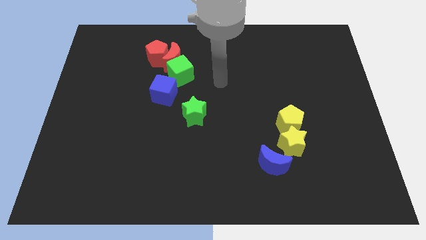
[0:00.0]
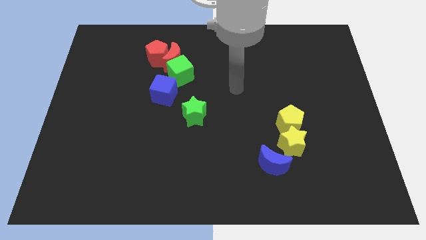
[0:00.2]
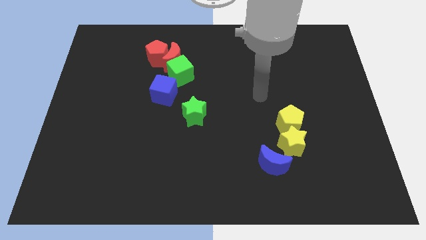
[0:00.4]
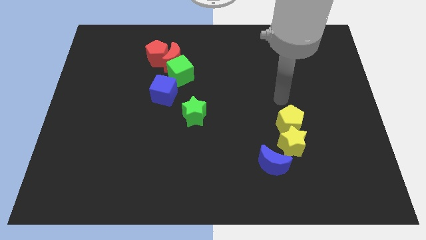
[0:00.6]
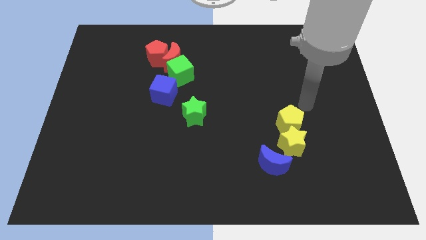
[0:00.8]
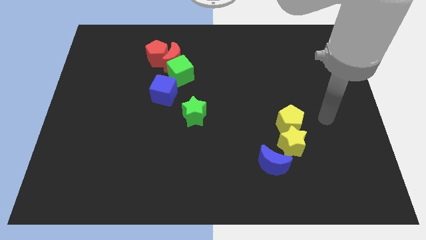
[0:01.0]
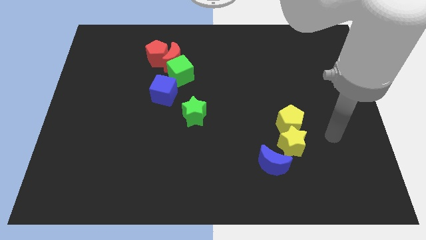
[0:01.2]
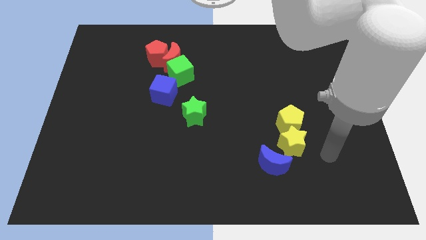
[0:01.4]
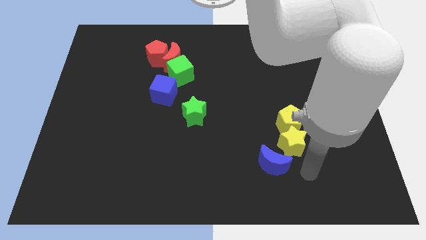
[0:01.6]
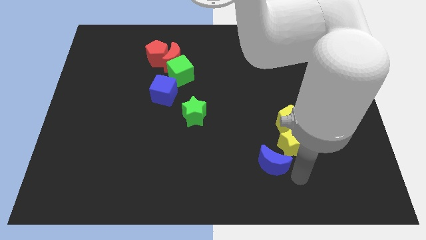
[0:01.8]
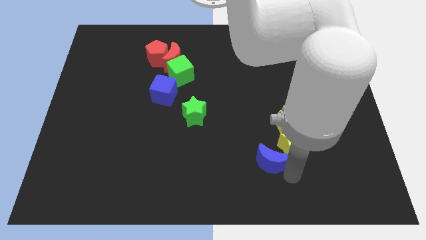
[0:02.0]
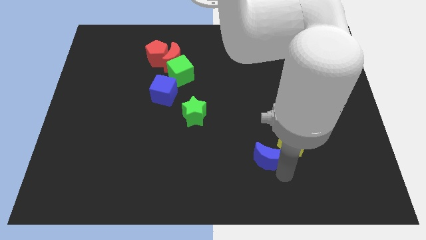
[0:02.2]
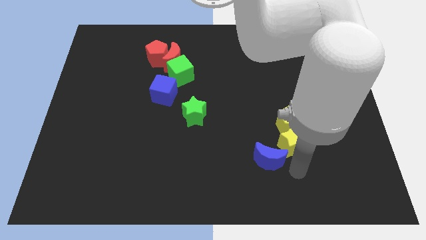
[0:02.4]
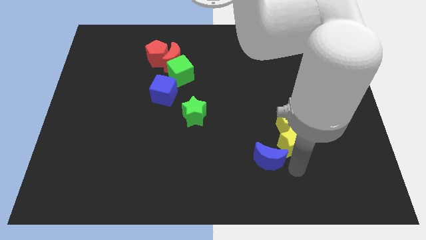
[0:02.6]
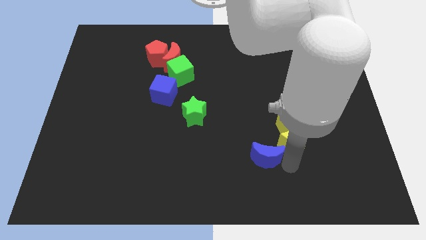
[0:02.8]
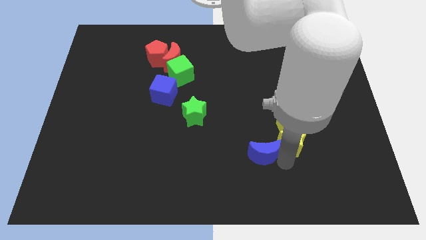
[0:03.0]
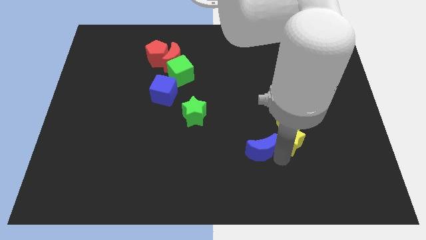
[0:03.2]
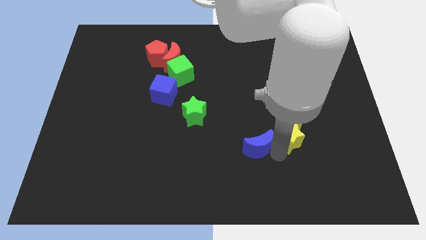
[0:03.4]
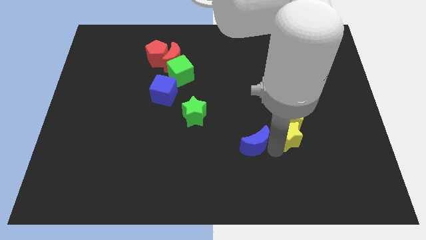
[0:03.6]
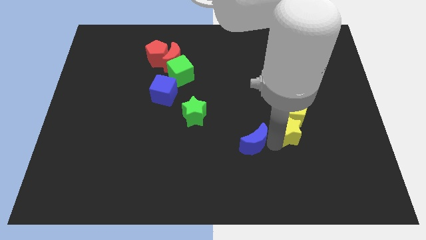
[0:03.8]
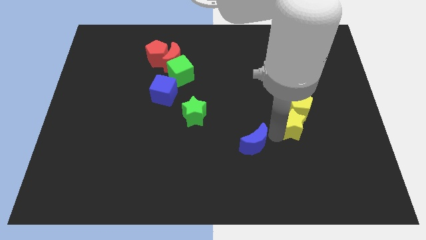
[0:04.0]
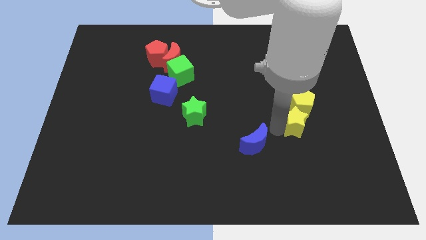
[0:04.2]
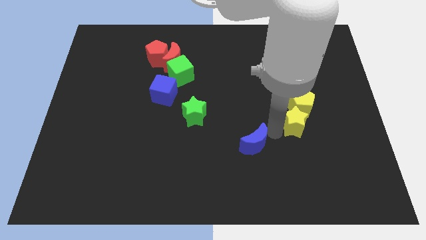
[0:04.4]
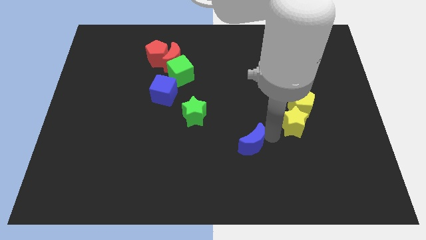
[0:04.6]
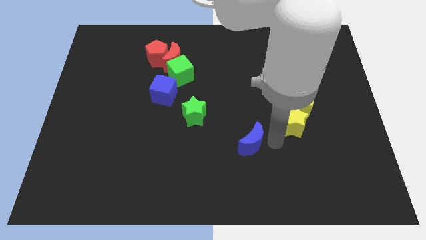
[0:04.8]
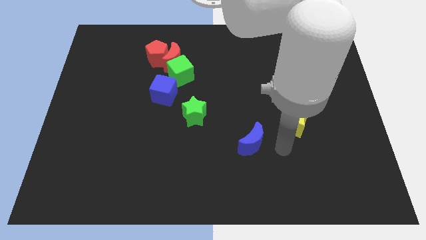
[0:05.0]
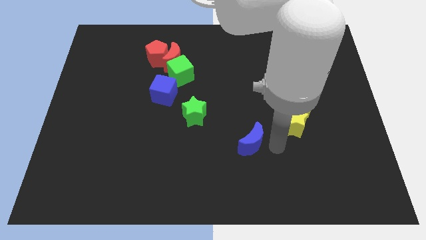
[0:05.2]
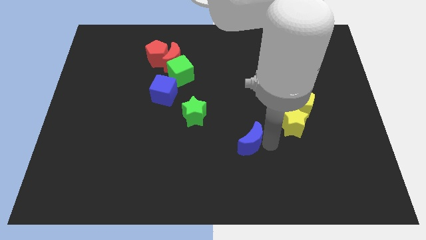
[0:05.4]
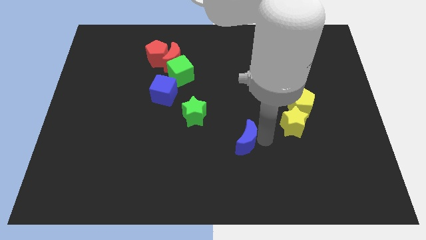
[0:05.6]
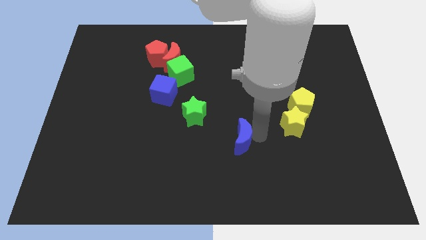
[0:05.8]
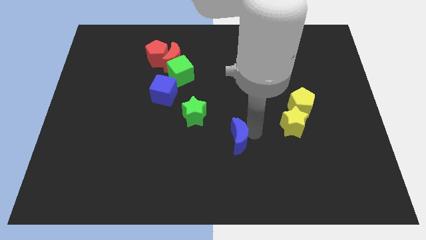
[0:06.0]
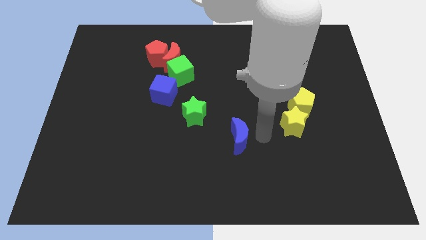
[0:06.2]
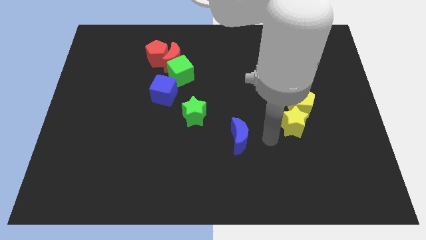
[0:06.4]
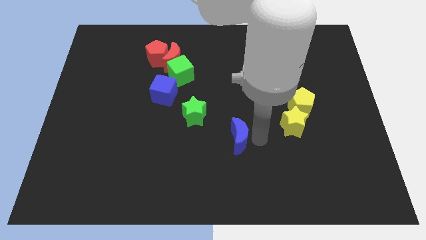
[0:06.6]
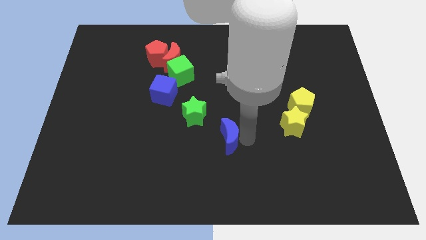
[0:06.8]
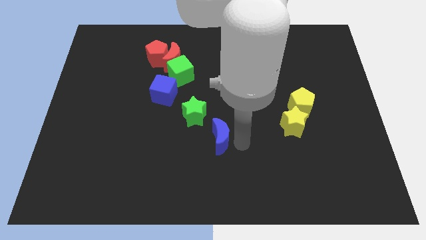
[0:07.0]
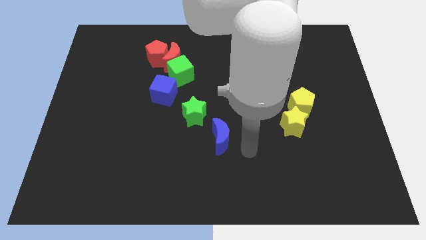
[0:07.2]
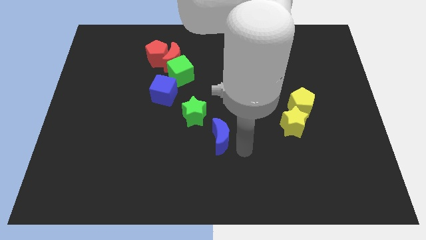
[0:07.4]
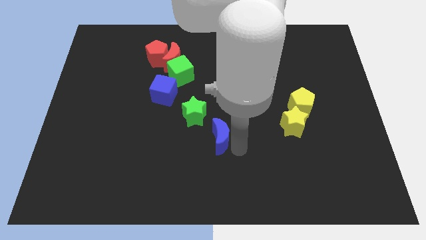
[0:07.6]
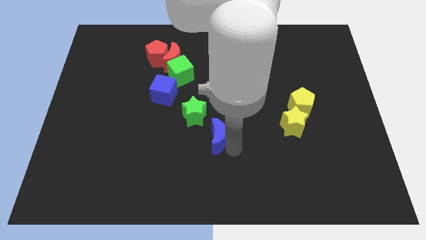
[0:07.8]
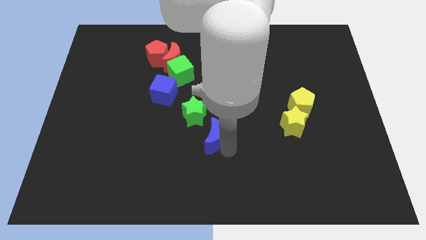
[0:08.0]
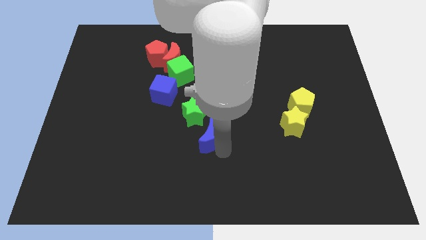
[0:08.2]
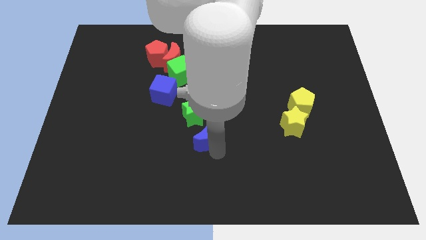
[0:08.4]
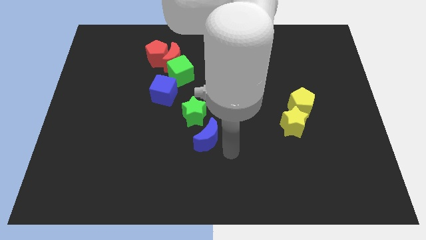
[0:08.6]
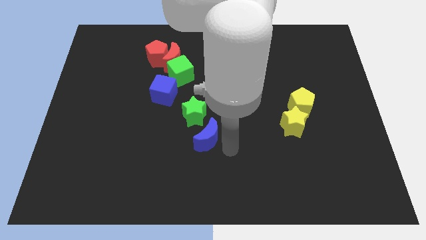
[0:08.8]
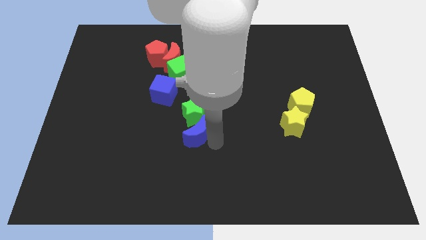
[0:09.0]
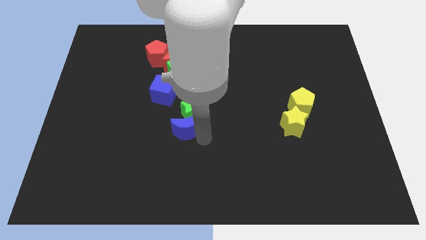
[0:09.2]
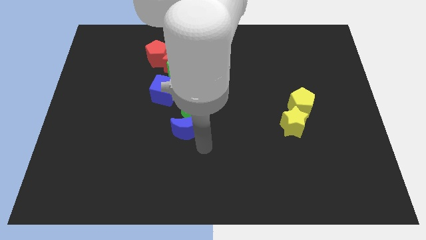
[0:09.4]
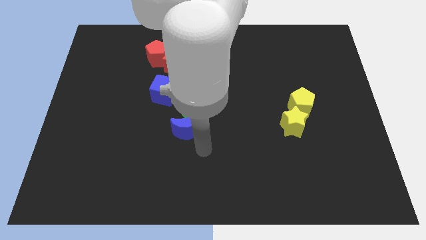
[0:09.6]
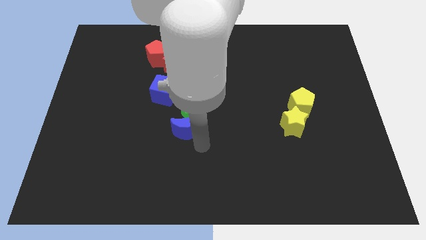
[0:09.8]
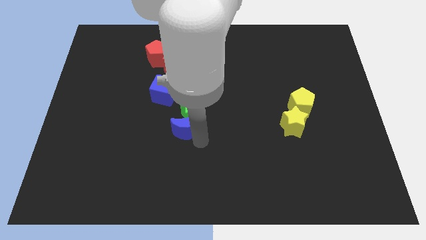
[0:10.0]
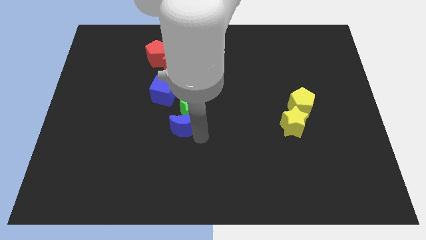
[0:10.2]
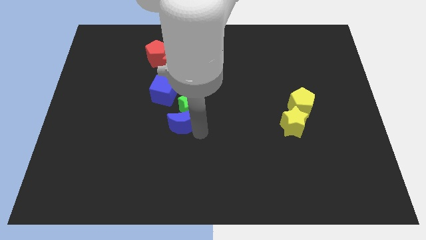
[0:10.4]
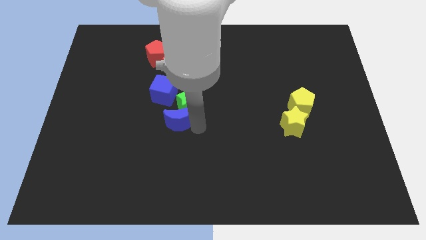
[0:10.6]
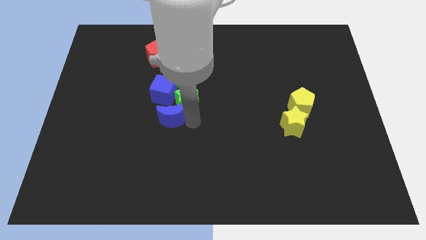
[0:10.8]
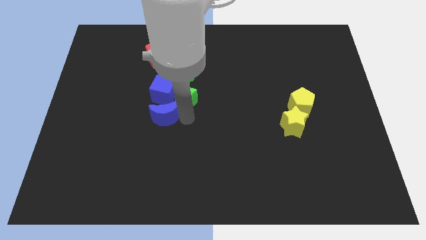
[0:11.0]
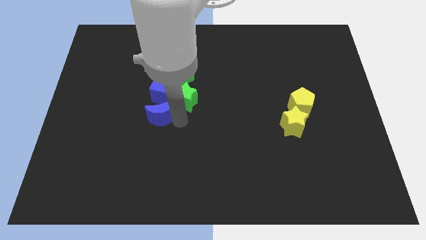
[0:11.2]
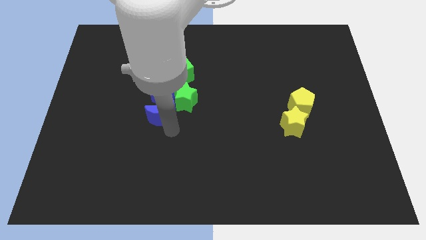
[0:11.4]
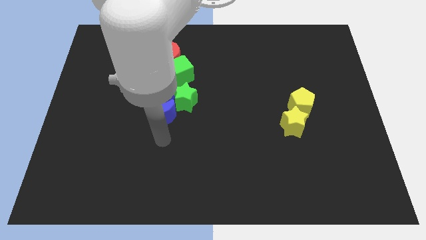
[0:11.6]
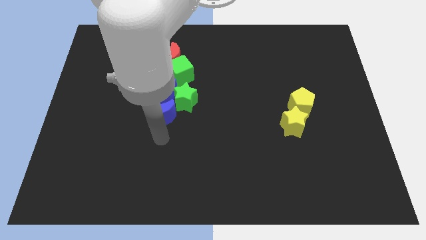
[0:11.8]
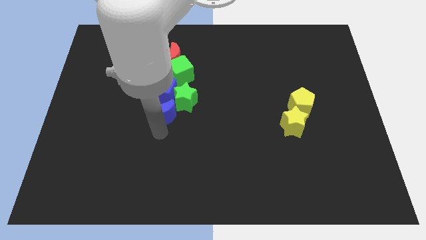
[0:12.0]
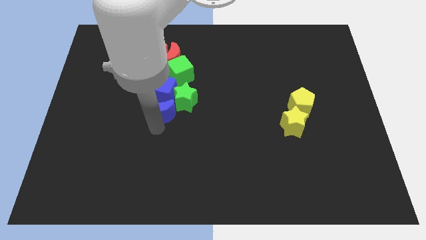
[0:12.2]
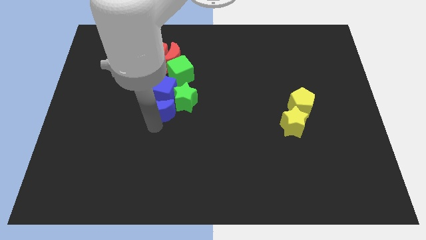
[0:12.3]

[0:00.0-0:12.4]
slide the blue moon towards the blue cube

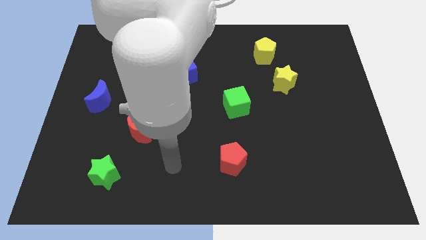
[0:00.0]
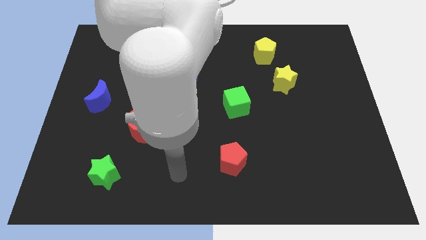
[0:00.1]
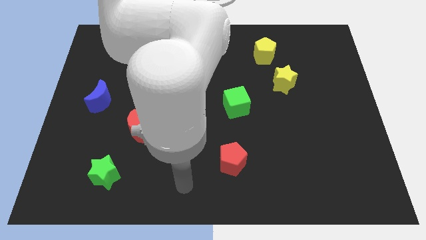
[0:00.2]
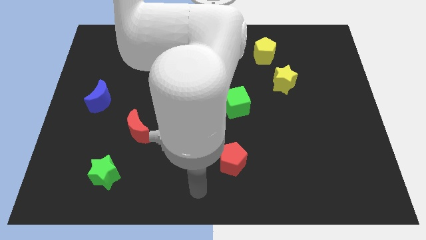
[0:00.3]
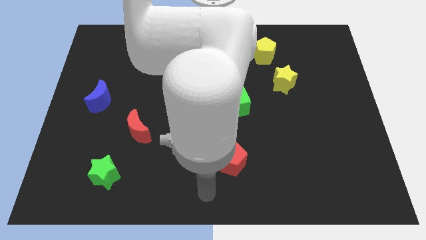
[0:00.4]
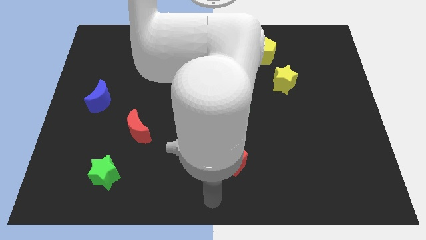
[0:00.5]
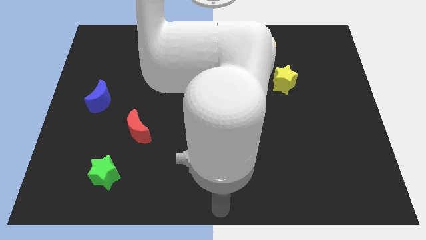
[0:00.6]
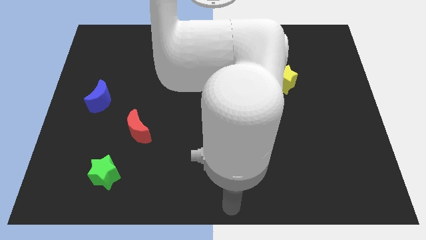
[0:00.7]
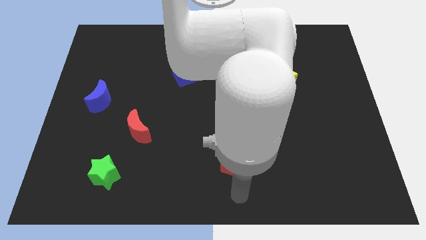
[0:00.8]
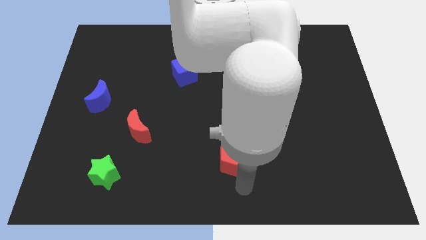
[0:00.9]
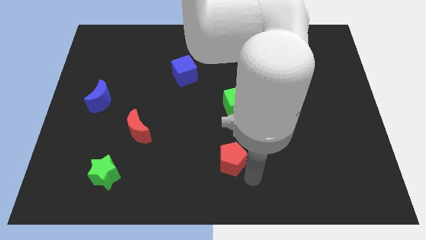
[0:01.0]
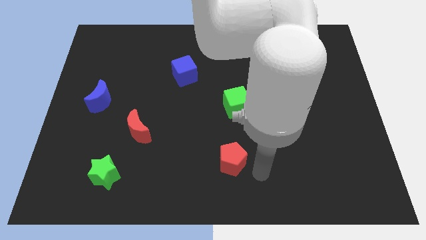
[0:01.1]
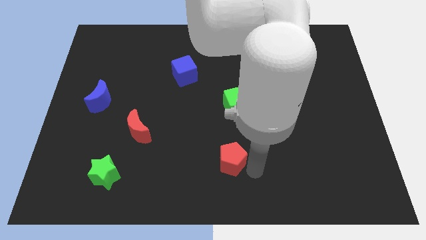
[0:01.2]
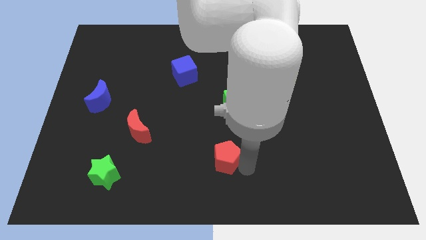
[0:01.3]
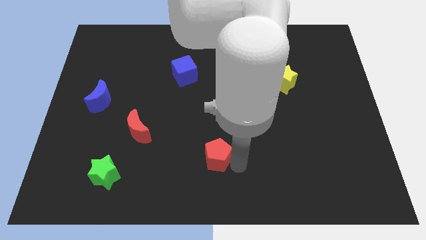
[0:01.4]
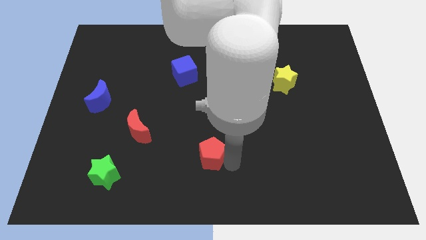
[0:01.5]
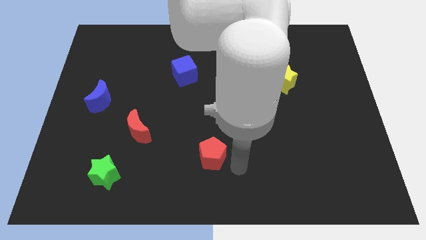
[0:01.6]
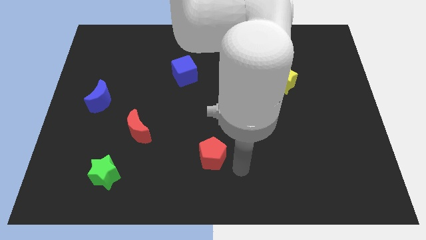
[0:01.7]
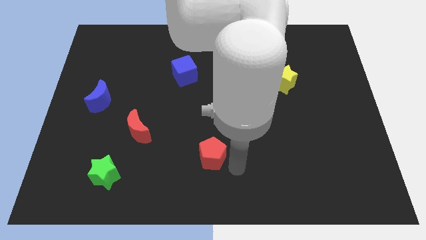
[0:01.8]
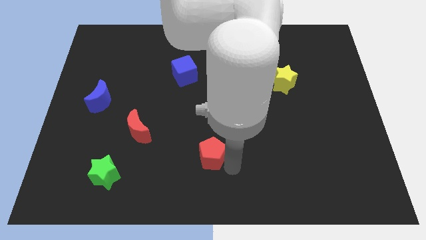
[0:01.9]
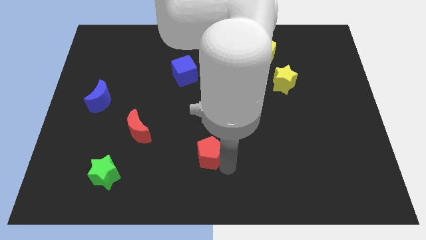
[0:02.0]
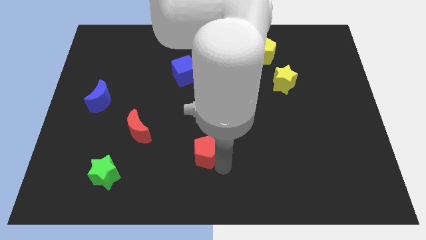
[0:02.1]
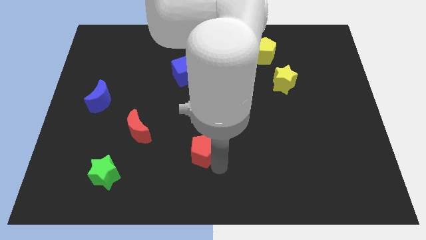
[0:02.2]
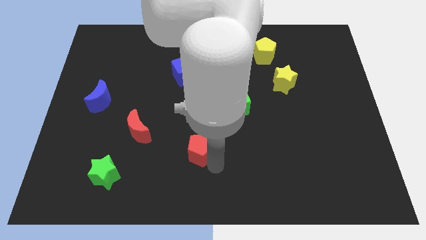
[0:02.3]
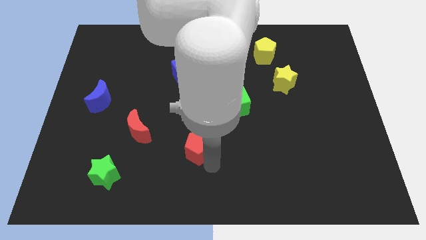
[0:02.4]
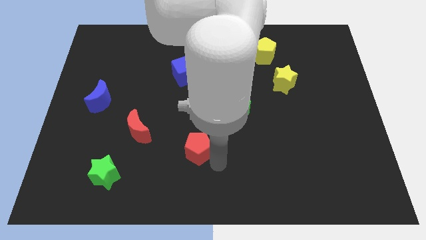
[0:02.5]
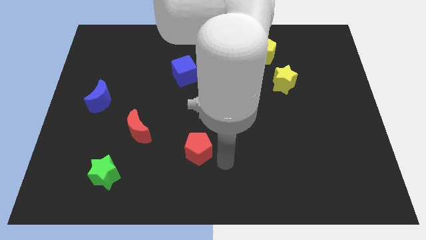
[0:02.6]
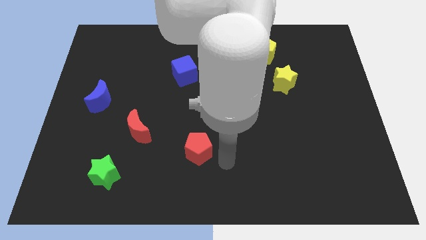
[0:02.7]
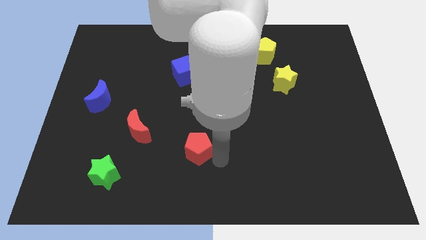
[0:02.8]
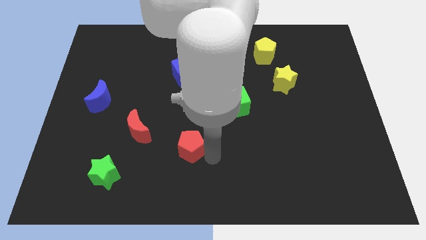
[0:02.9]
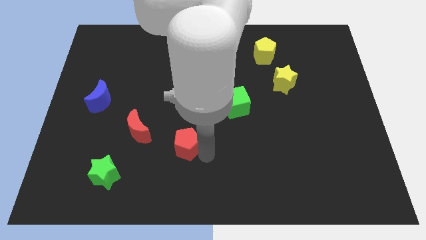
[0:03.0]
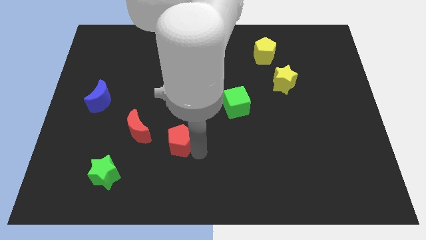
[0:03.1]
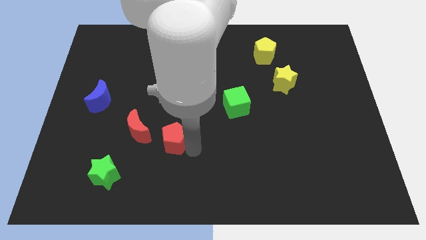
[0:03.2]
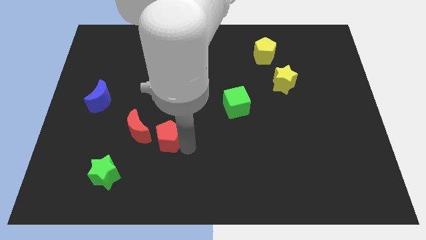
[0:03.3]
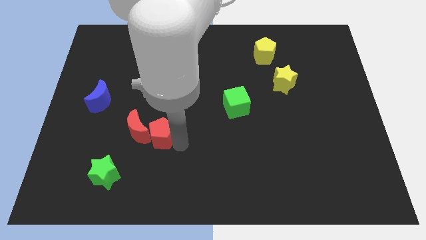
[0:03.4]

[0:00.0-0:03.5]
push the red pentagon to the red moon
